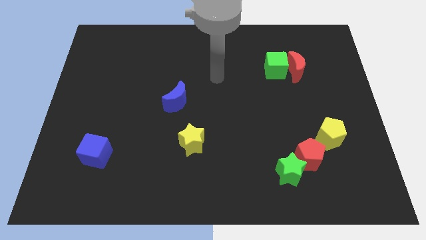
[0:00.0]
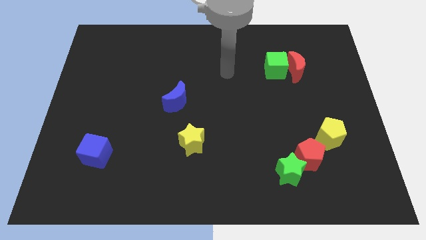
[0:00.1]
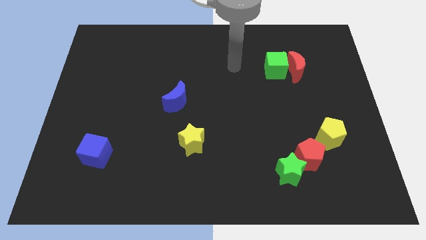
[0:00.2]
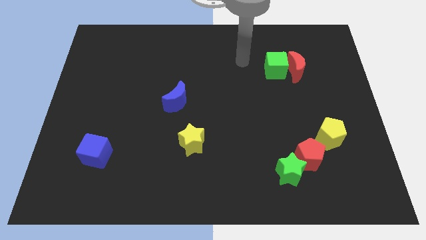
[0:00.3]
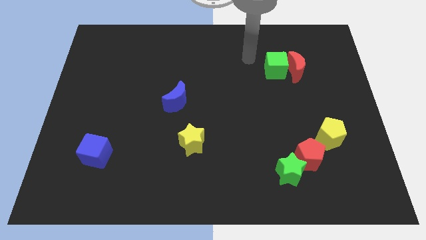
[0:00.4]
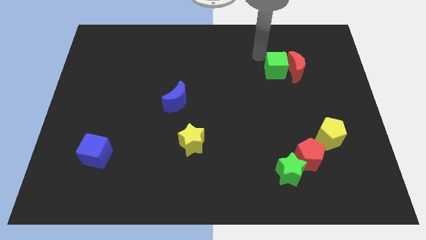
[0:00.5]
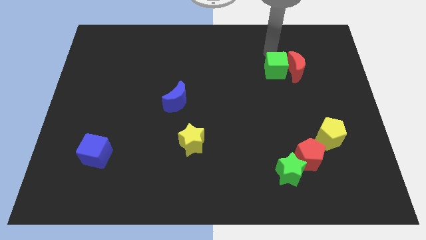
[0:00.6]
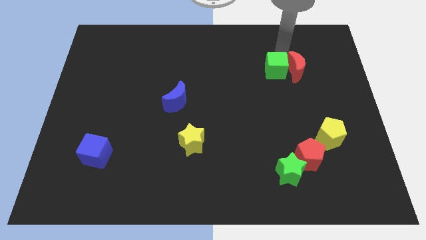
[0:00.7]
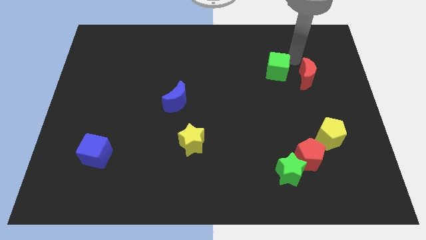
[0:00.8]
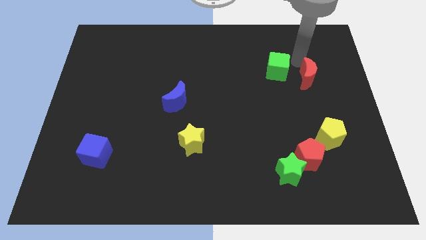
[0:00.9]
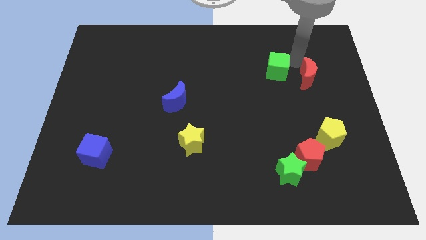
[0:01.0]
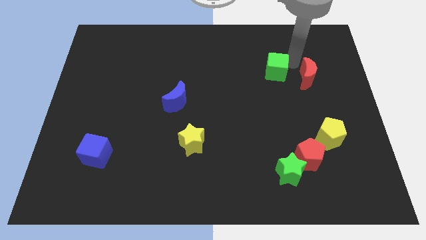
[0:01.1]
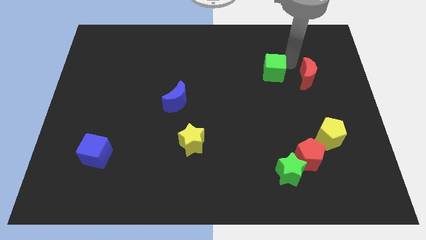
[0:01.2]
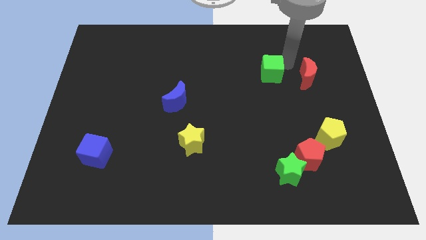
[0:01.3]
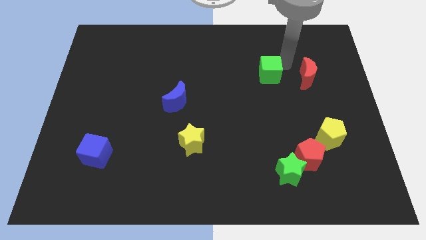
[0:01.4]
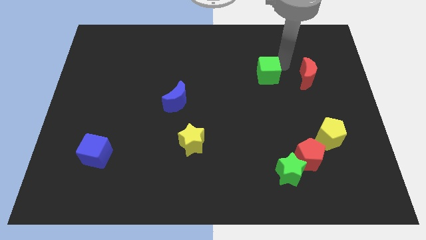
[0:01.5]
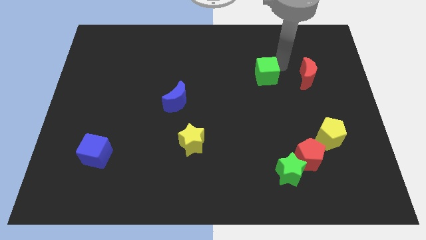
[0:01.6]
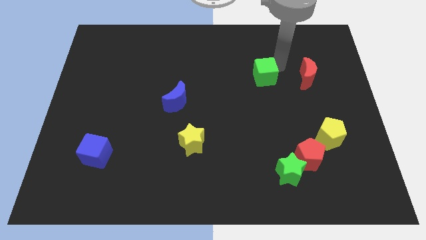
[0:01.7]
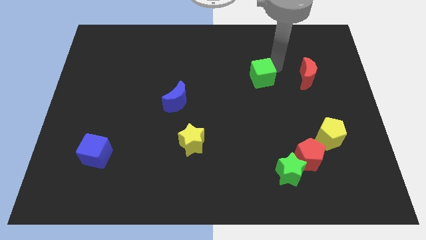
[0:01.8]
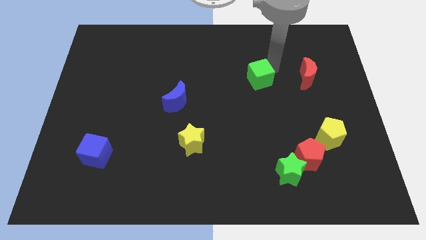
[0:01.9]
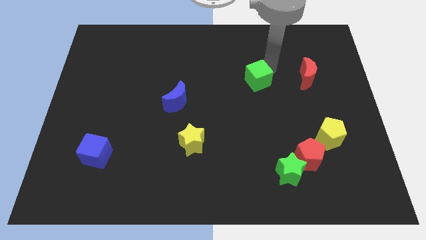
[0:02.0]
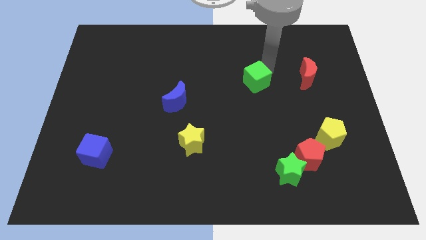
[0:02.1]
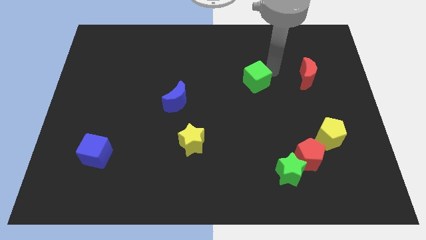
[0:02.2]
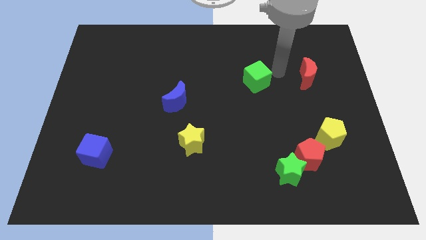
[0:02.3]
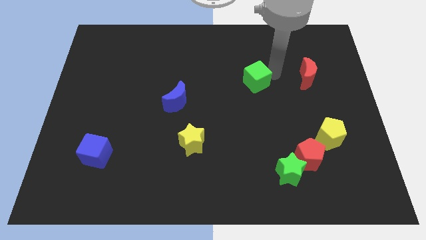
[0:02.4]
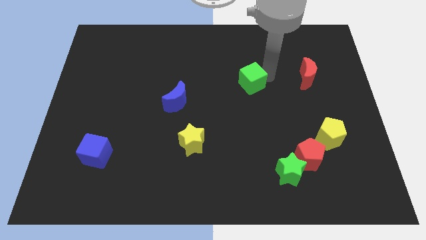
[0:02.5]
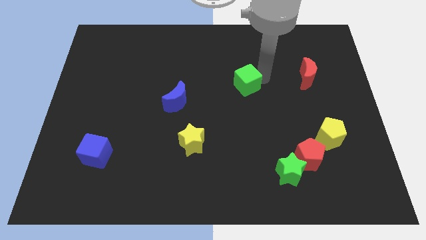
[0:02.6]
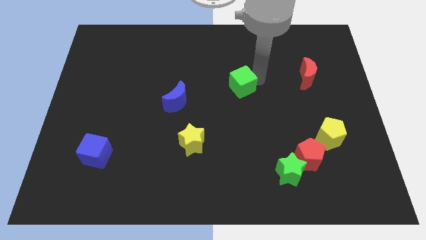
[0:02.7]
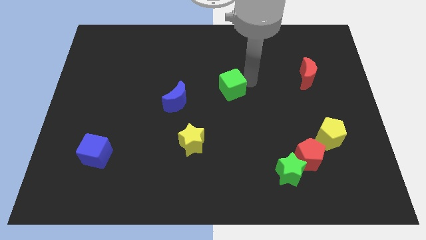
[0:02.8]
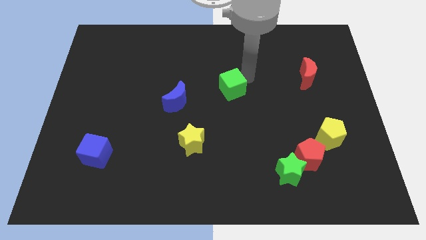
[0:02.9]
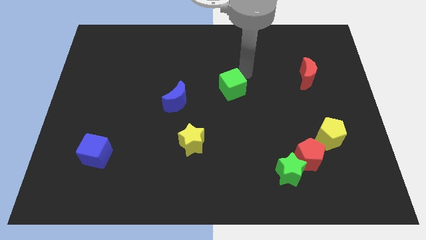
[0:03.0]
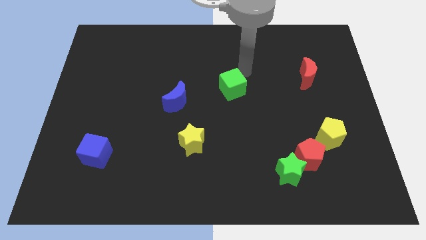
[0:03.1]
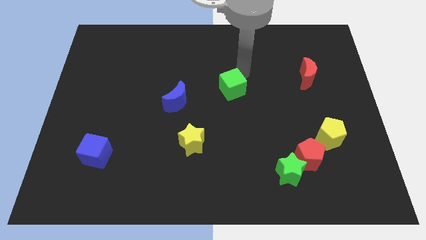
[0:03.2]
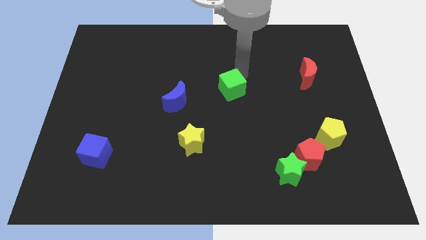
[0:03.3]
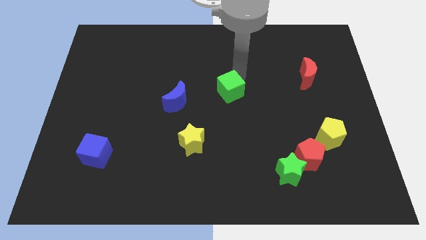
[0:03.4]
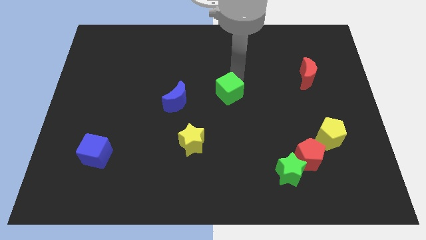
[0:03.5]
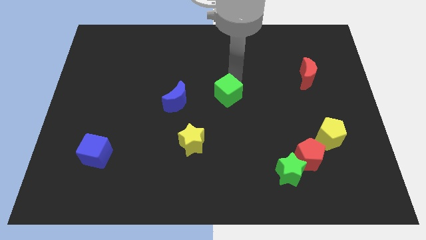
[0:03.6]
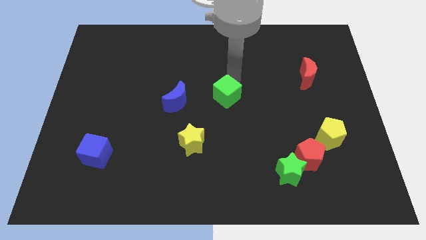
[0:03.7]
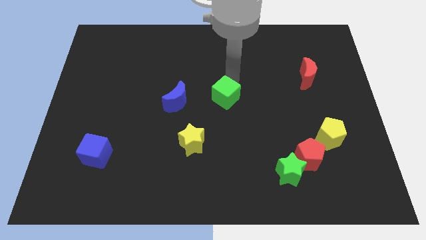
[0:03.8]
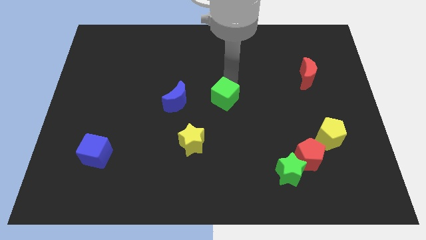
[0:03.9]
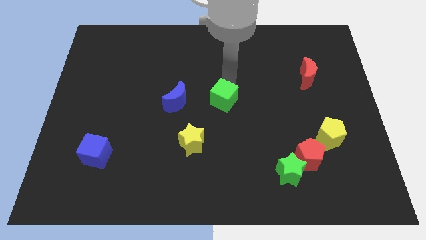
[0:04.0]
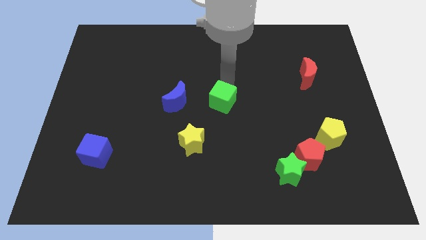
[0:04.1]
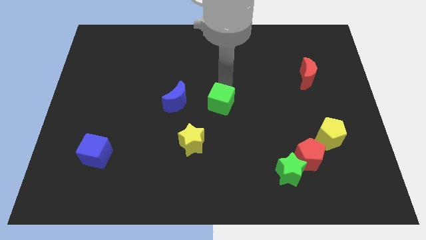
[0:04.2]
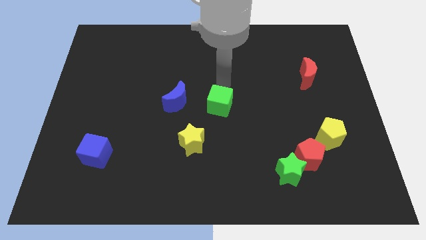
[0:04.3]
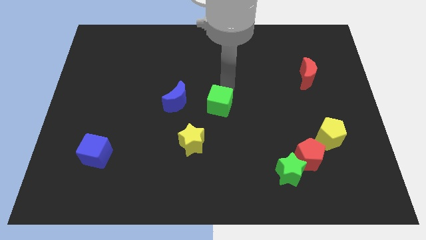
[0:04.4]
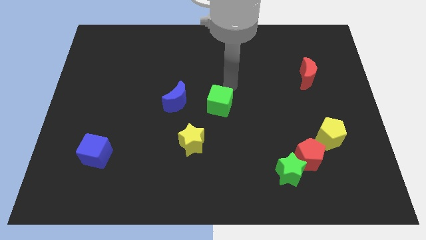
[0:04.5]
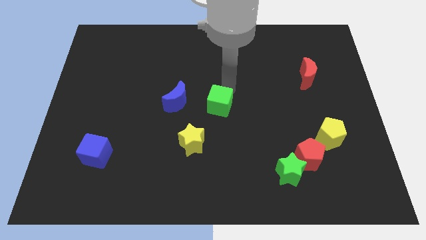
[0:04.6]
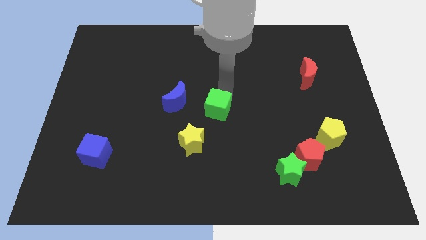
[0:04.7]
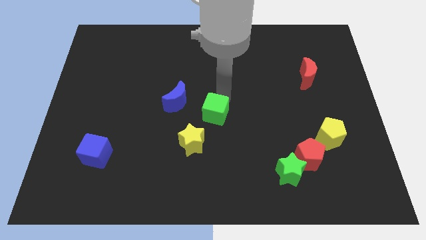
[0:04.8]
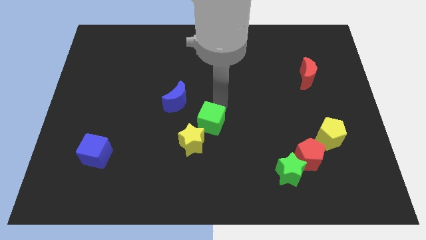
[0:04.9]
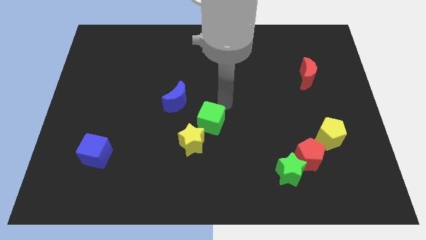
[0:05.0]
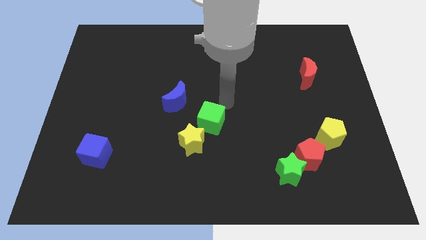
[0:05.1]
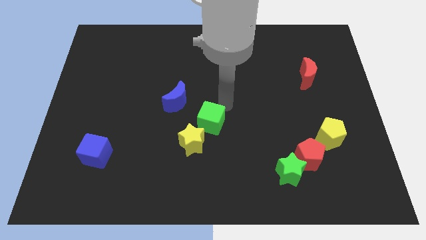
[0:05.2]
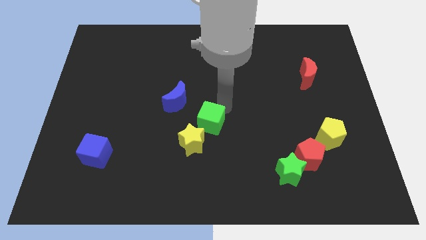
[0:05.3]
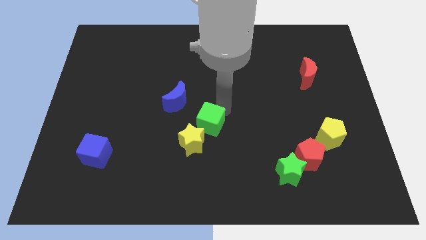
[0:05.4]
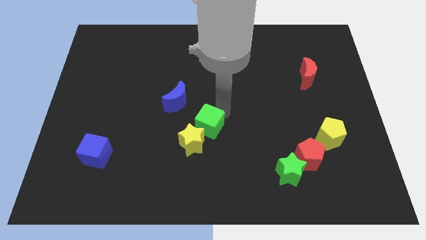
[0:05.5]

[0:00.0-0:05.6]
slide the green cube close to the yellow star

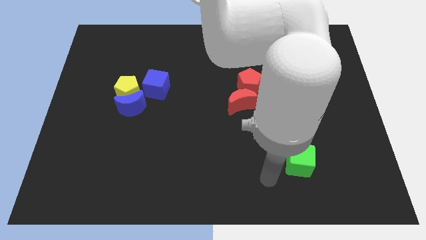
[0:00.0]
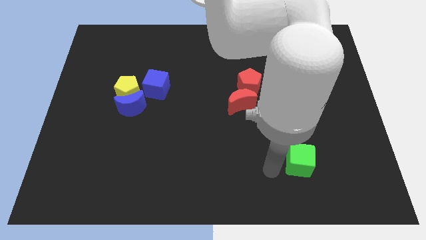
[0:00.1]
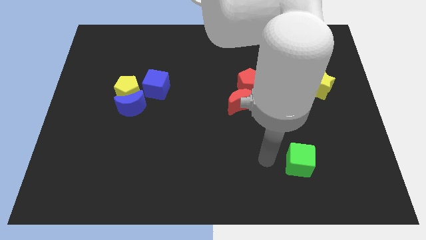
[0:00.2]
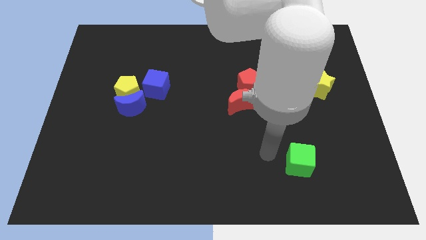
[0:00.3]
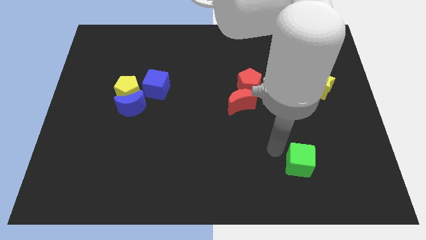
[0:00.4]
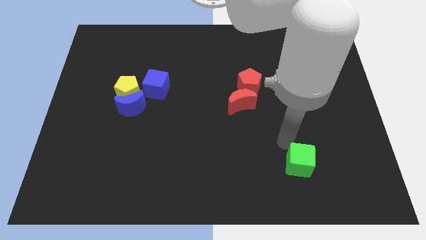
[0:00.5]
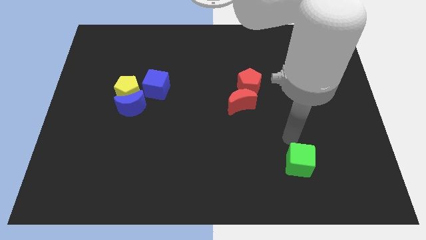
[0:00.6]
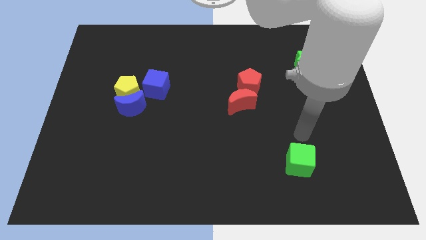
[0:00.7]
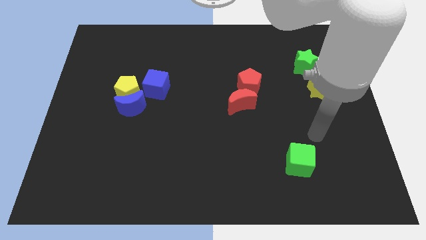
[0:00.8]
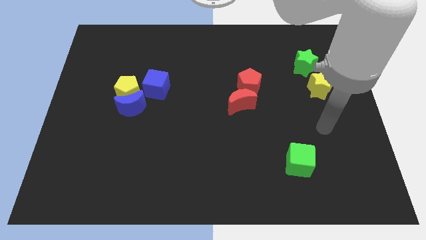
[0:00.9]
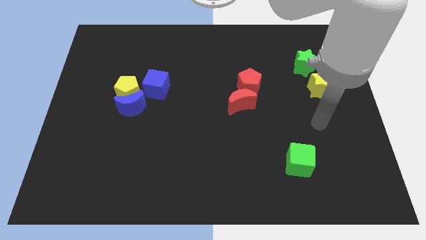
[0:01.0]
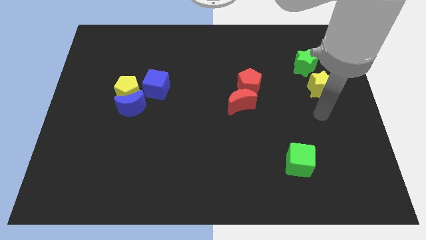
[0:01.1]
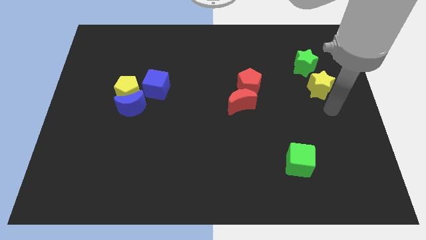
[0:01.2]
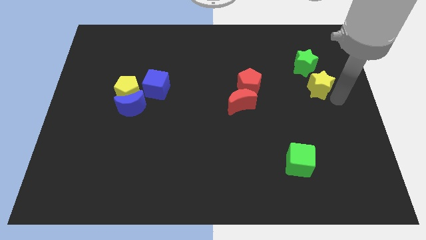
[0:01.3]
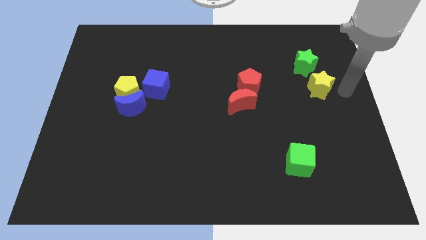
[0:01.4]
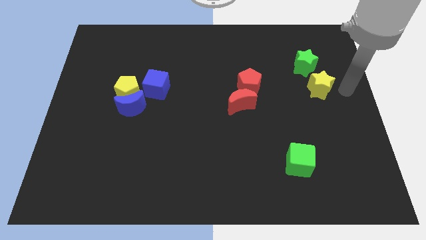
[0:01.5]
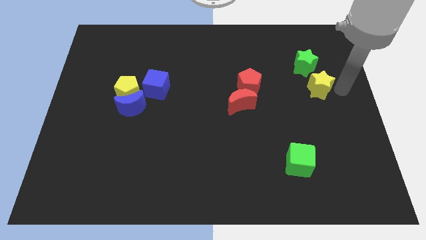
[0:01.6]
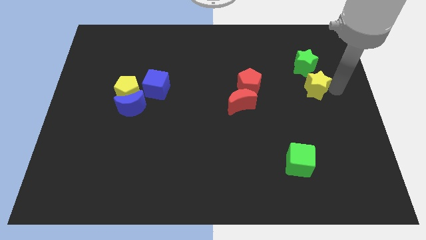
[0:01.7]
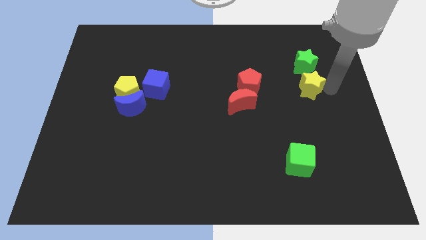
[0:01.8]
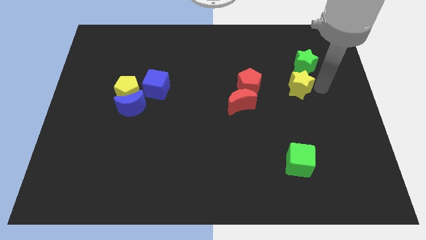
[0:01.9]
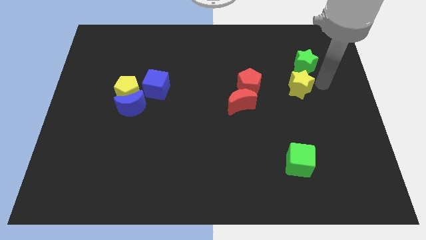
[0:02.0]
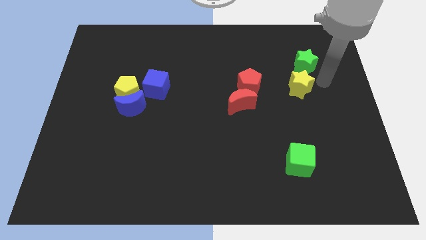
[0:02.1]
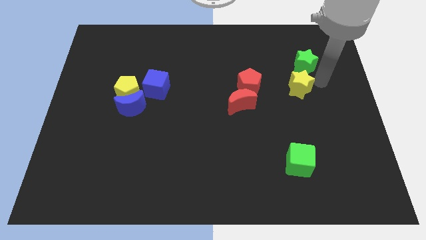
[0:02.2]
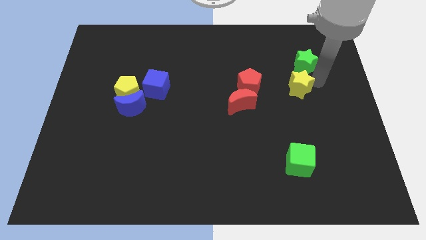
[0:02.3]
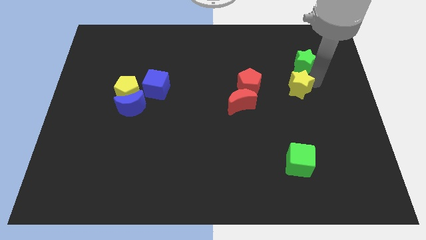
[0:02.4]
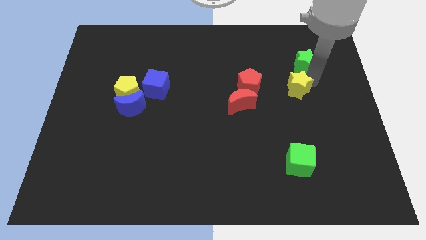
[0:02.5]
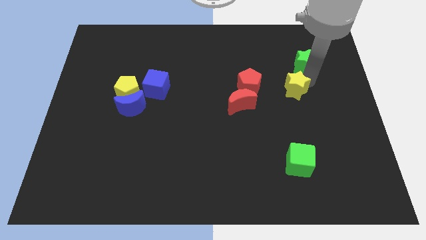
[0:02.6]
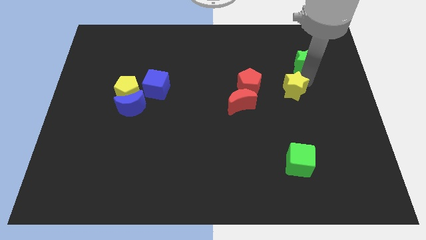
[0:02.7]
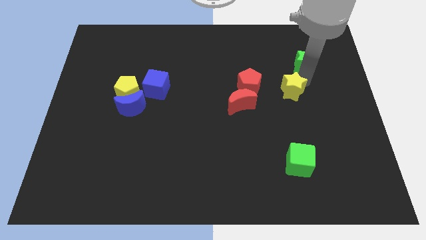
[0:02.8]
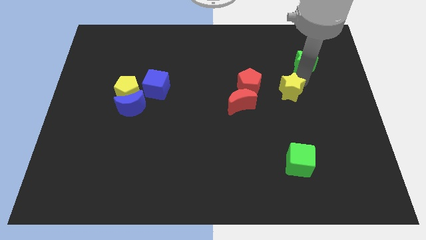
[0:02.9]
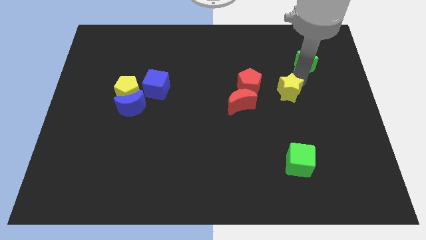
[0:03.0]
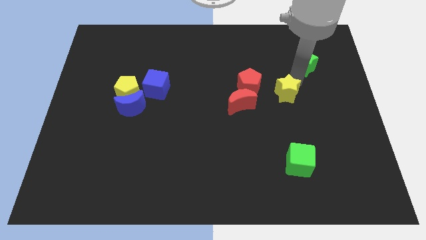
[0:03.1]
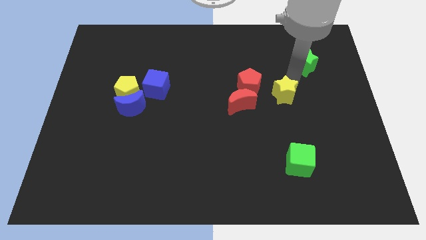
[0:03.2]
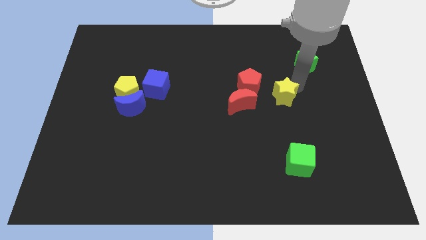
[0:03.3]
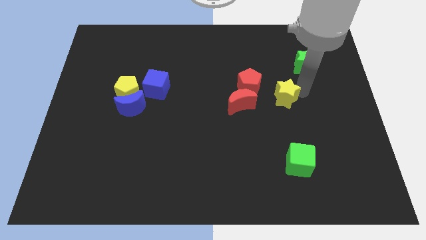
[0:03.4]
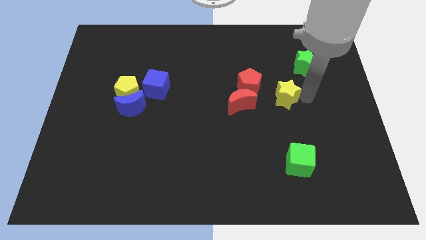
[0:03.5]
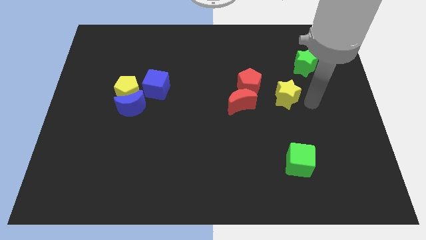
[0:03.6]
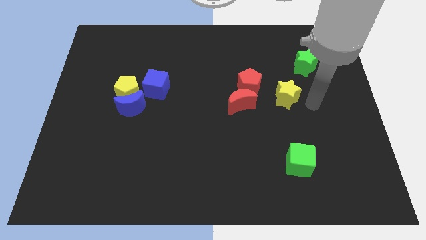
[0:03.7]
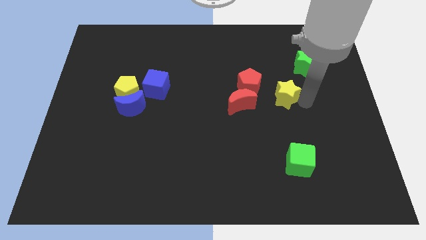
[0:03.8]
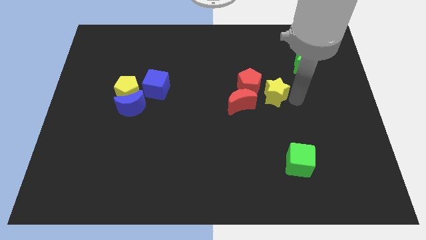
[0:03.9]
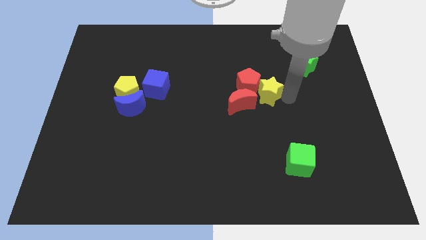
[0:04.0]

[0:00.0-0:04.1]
move the yellow star close to the red pentagon
